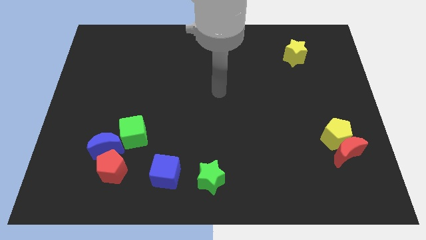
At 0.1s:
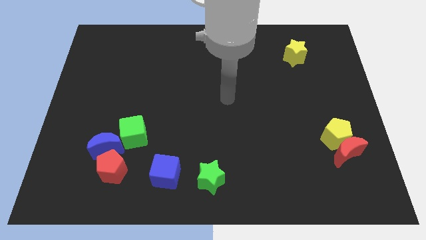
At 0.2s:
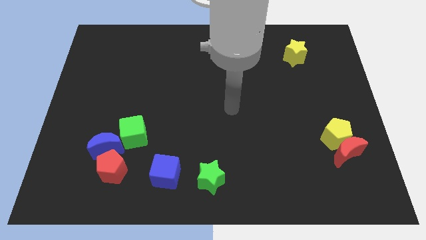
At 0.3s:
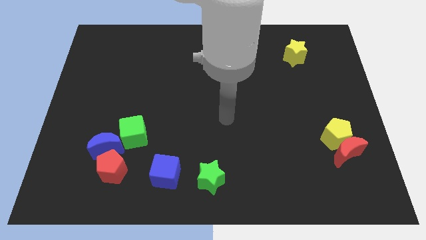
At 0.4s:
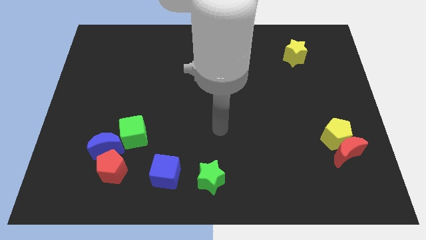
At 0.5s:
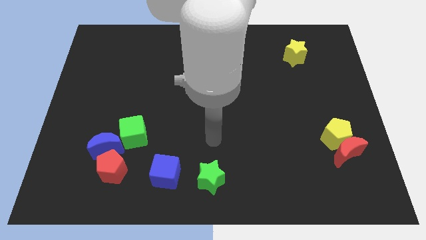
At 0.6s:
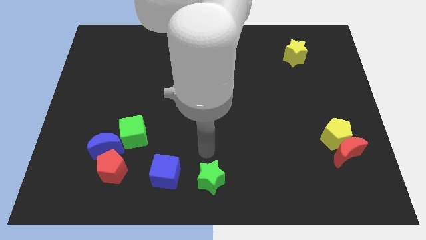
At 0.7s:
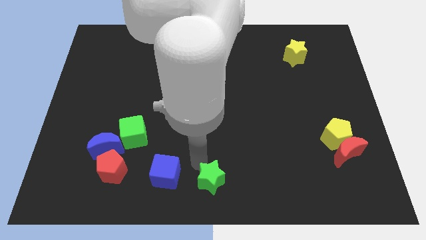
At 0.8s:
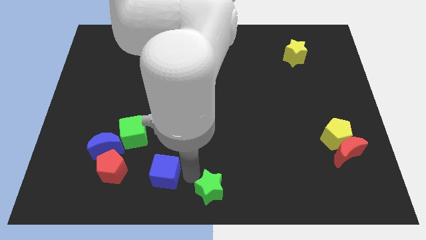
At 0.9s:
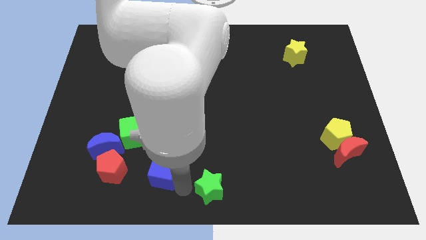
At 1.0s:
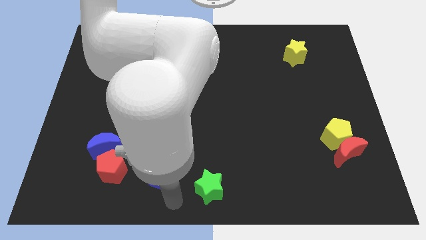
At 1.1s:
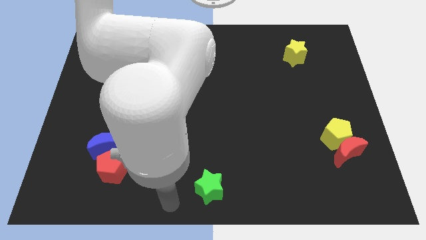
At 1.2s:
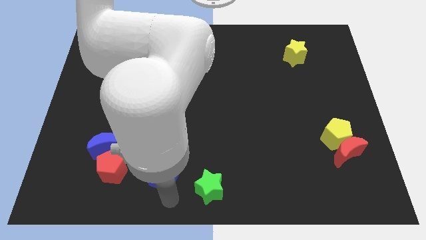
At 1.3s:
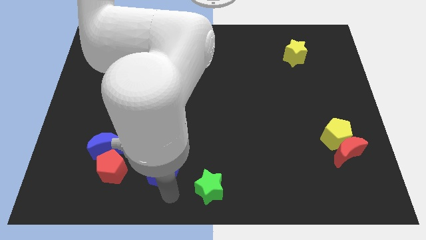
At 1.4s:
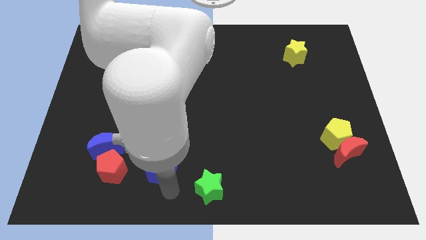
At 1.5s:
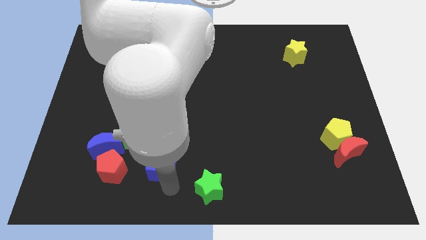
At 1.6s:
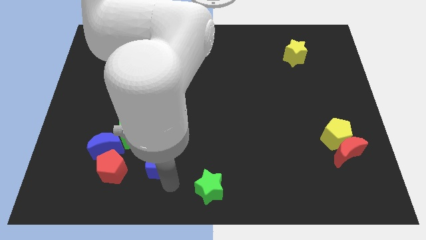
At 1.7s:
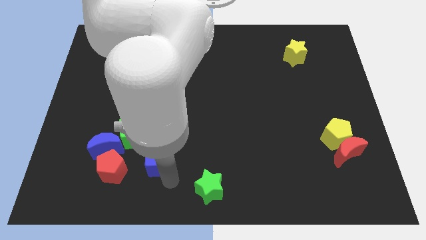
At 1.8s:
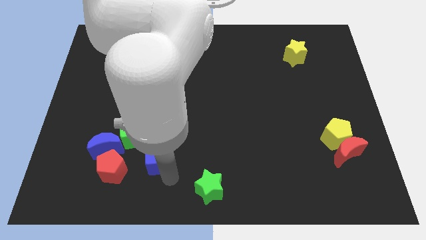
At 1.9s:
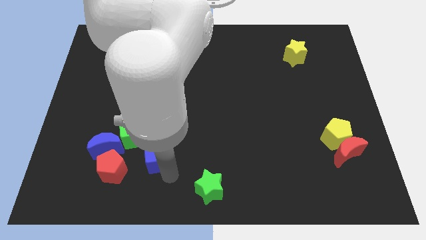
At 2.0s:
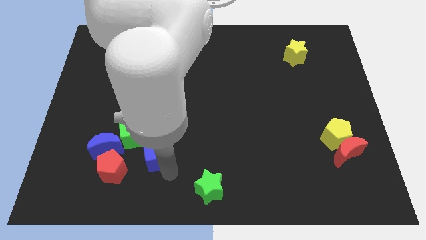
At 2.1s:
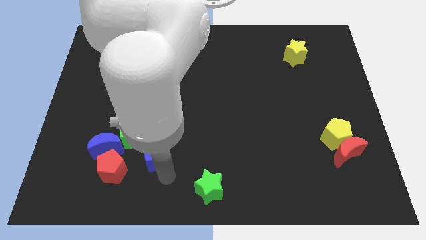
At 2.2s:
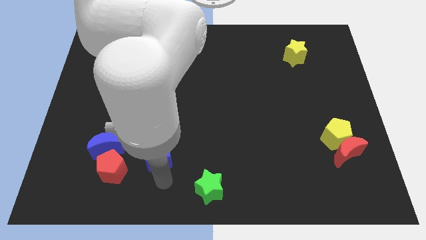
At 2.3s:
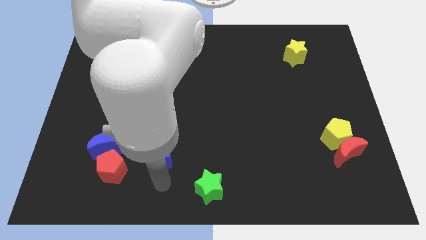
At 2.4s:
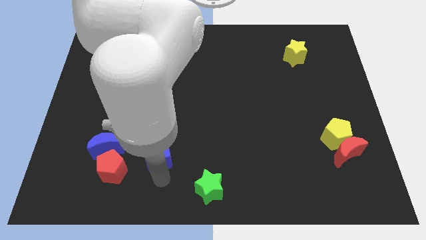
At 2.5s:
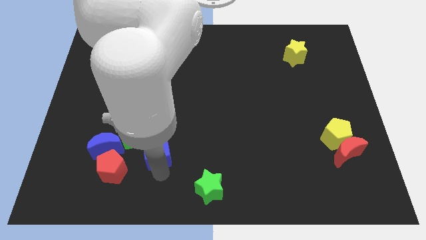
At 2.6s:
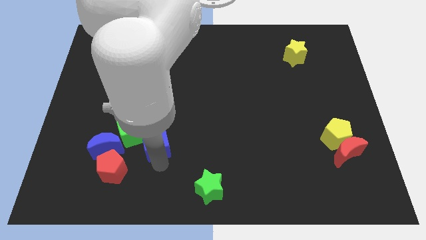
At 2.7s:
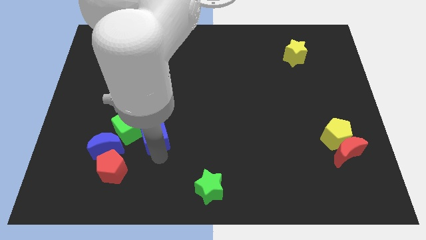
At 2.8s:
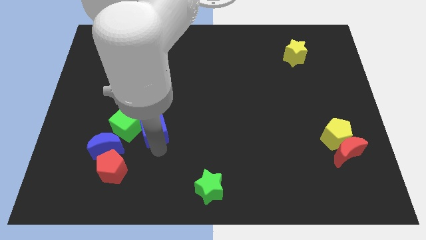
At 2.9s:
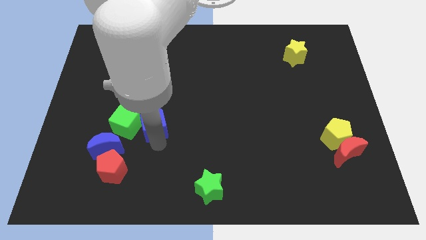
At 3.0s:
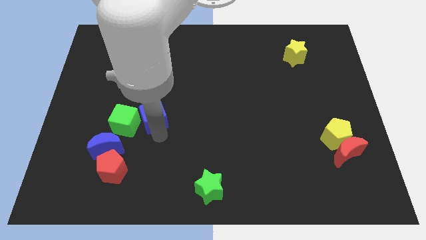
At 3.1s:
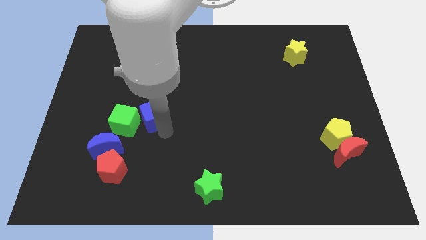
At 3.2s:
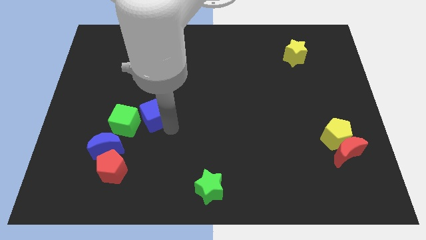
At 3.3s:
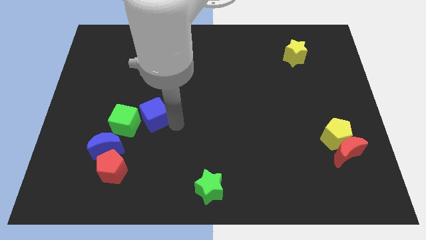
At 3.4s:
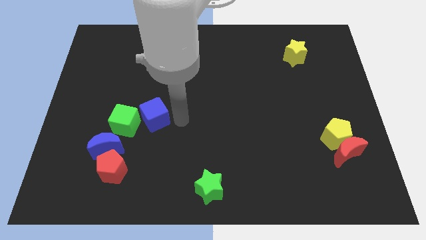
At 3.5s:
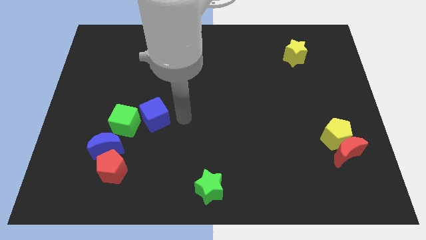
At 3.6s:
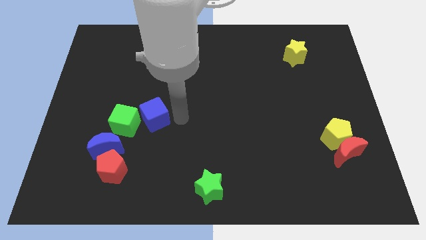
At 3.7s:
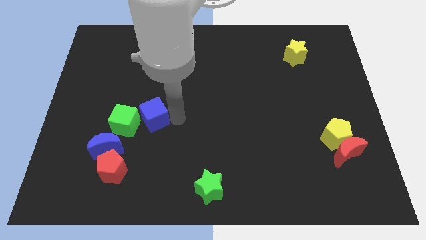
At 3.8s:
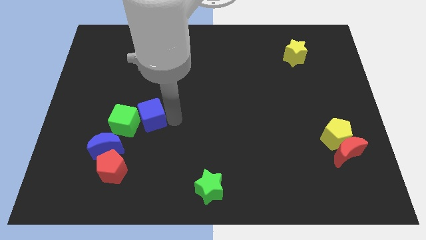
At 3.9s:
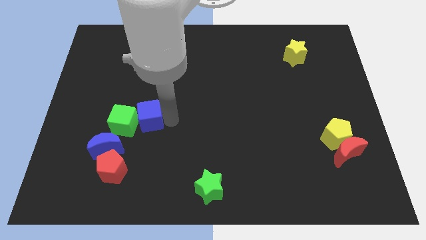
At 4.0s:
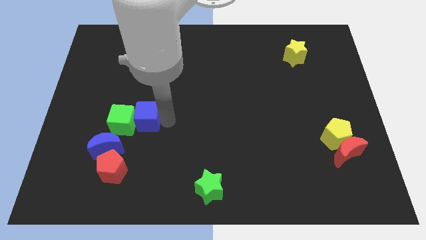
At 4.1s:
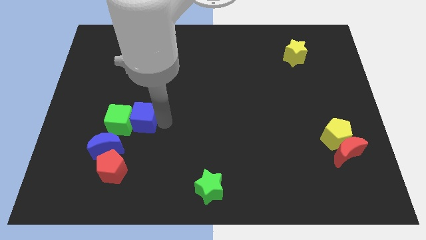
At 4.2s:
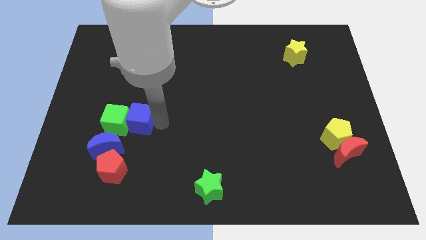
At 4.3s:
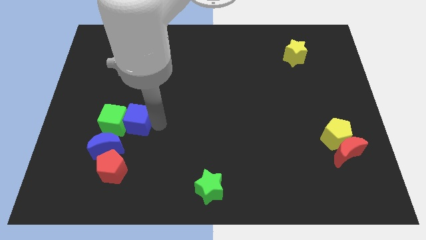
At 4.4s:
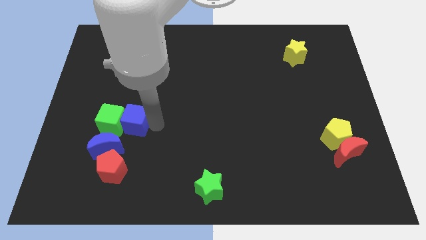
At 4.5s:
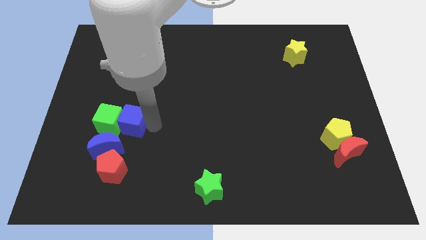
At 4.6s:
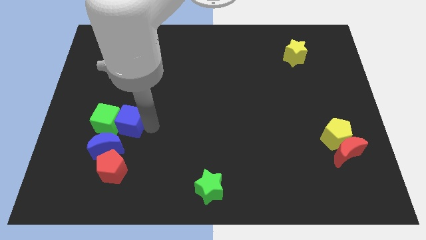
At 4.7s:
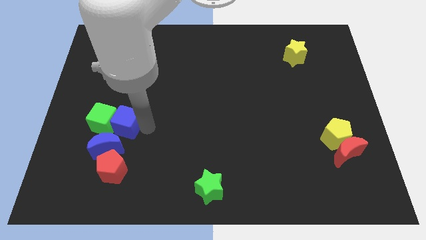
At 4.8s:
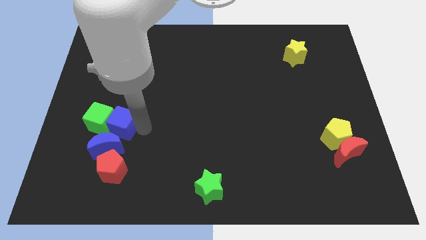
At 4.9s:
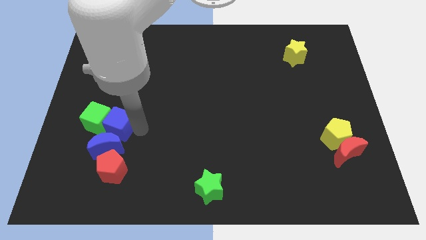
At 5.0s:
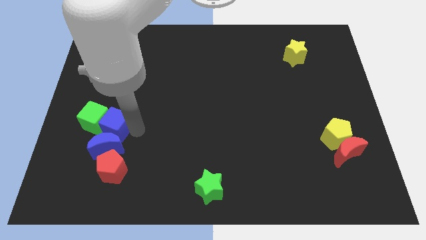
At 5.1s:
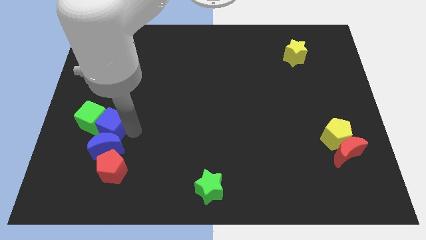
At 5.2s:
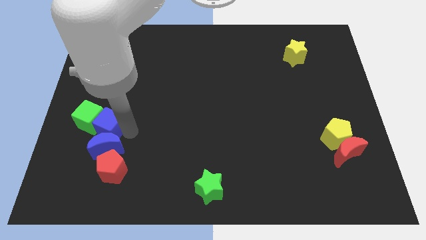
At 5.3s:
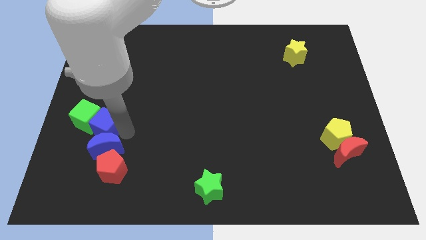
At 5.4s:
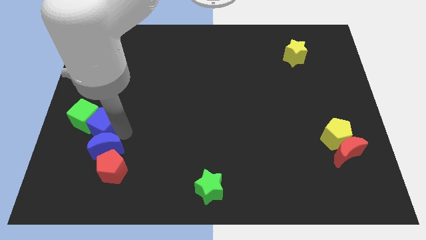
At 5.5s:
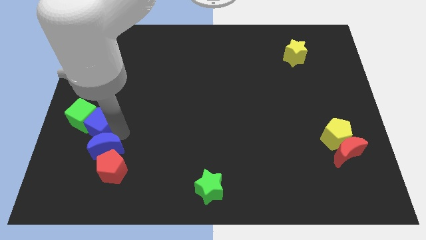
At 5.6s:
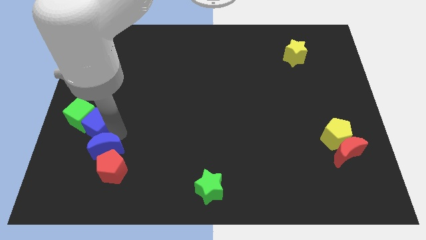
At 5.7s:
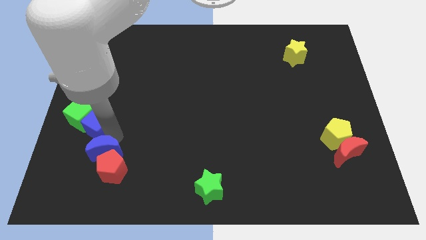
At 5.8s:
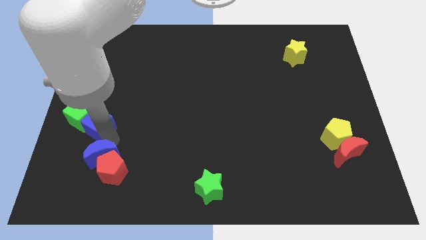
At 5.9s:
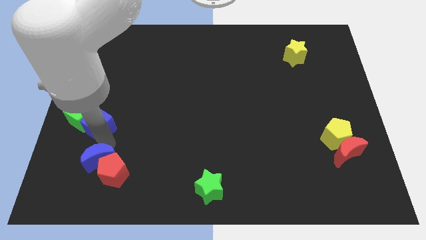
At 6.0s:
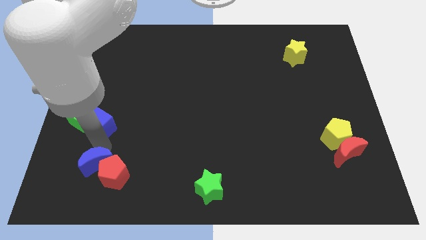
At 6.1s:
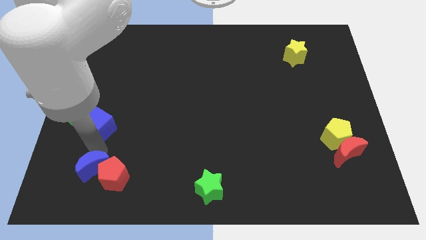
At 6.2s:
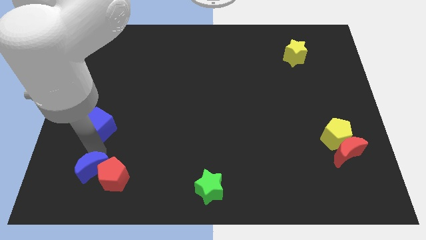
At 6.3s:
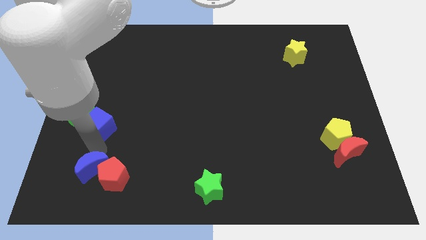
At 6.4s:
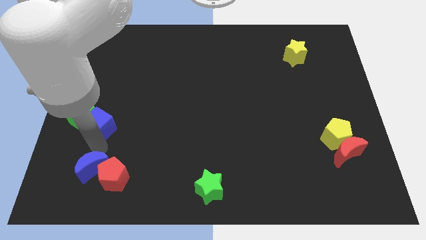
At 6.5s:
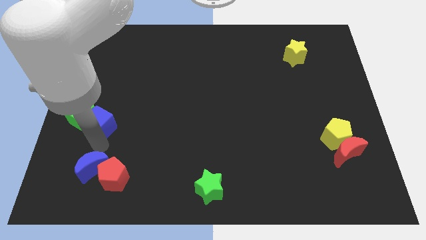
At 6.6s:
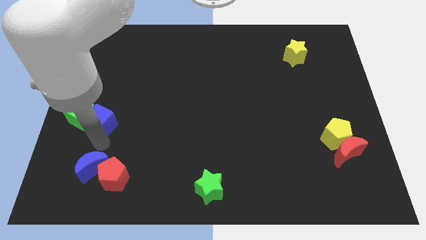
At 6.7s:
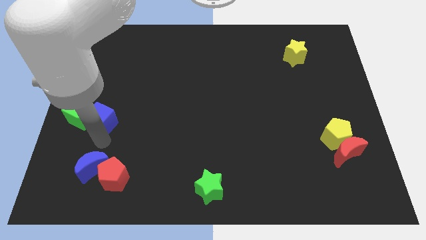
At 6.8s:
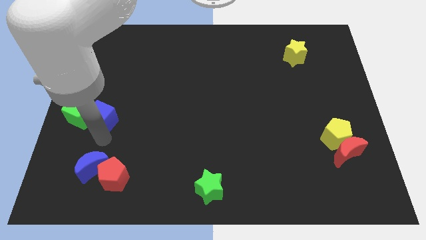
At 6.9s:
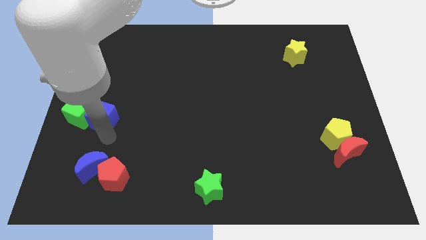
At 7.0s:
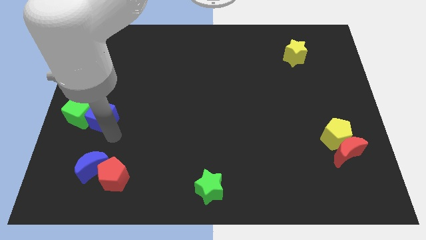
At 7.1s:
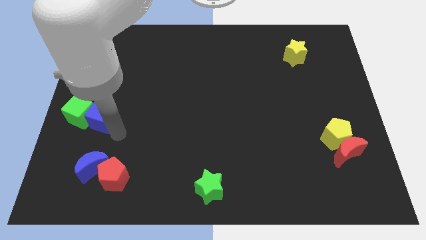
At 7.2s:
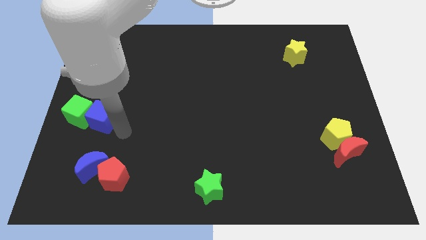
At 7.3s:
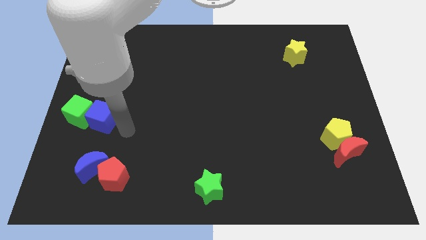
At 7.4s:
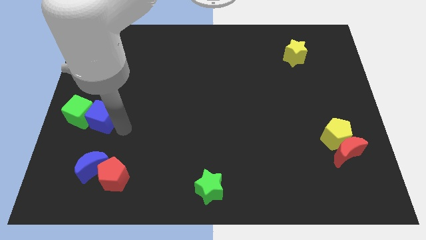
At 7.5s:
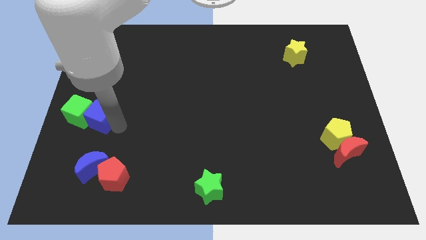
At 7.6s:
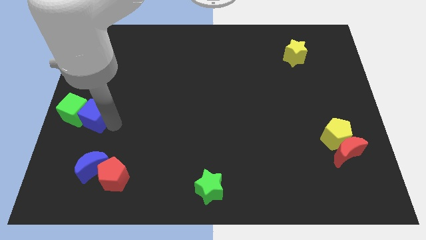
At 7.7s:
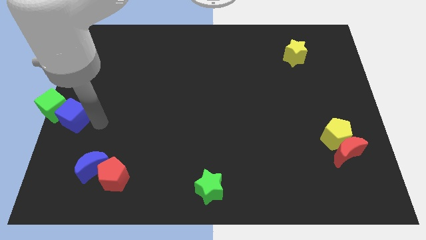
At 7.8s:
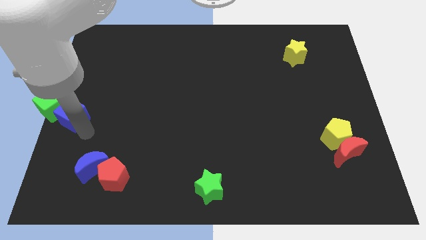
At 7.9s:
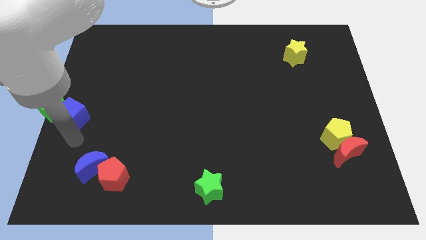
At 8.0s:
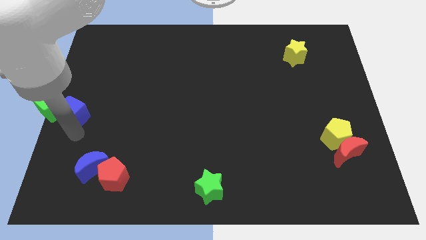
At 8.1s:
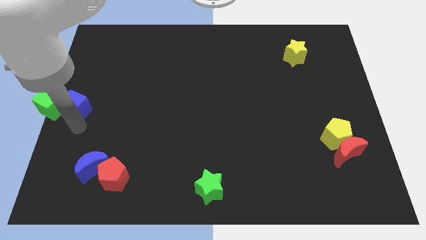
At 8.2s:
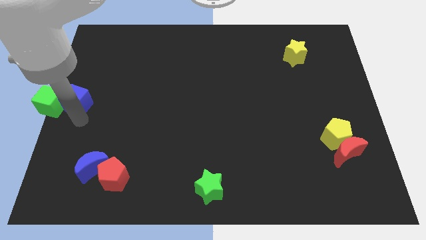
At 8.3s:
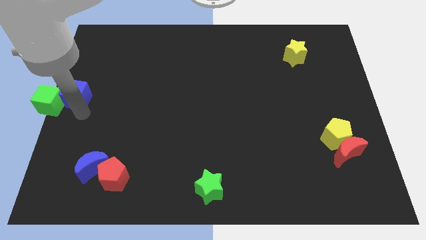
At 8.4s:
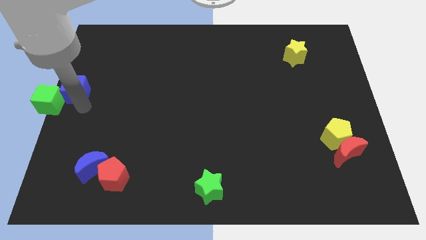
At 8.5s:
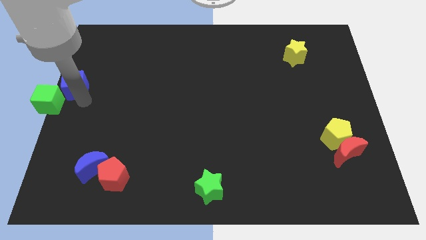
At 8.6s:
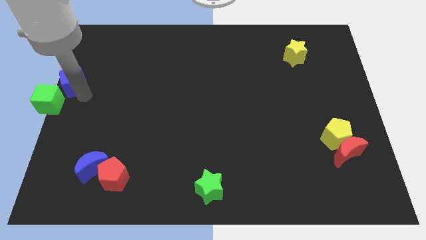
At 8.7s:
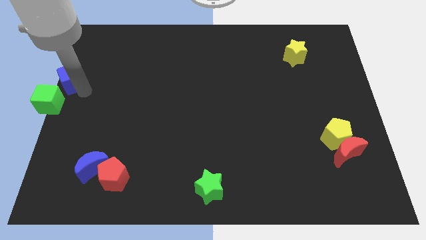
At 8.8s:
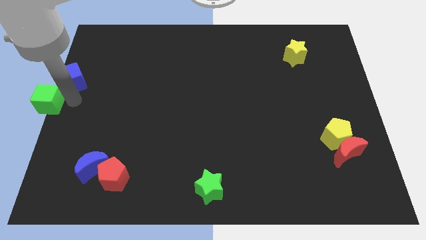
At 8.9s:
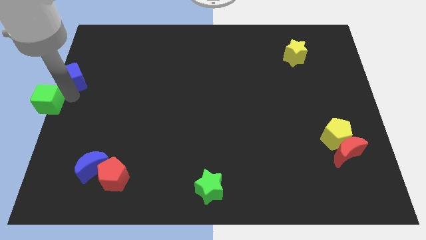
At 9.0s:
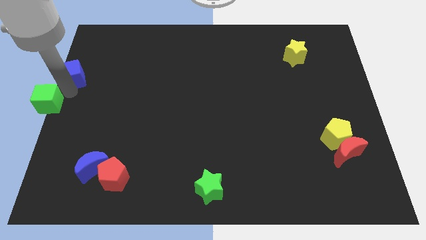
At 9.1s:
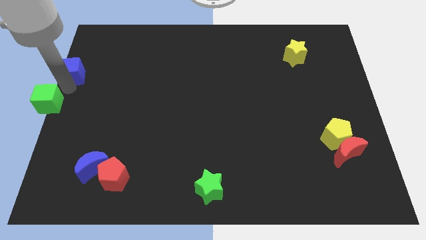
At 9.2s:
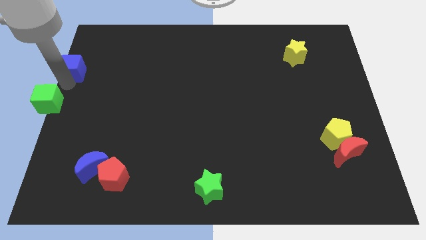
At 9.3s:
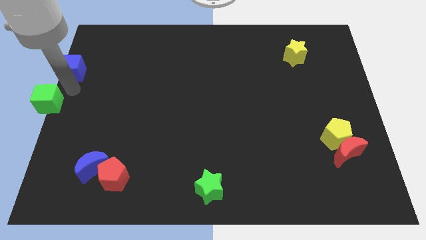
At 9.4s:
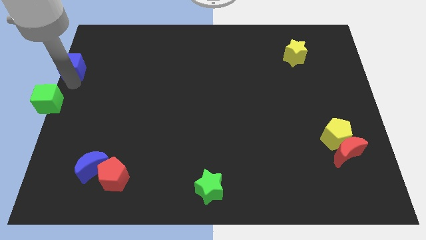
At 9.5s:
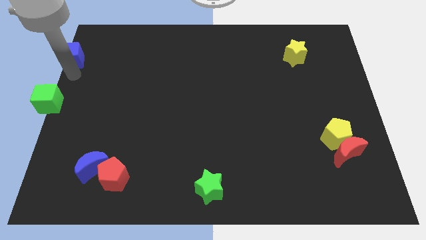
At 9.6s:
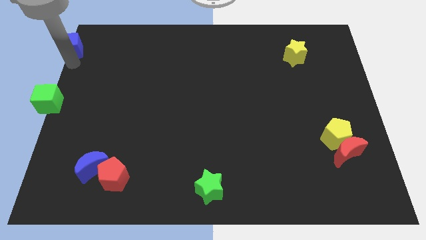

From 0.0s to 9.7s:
slide the blue cube to the top left of the board
